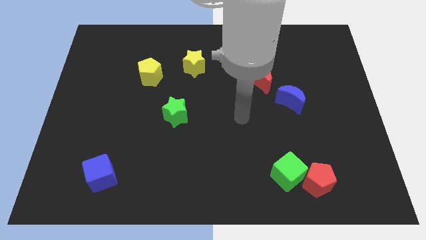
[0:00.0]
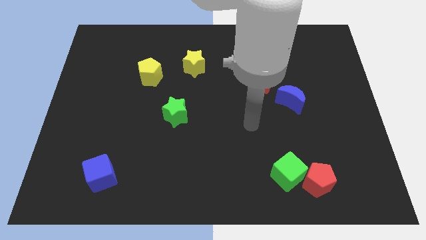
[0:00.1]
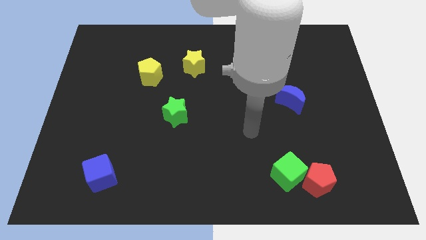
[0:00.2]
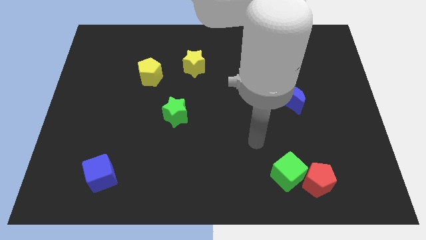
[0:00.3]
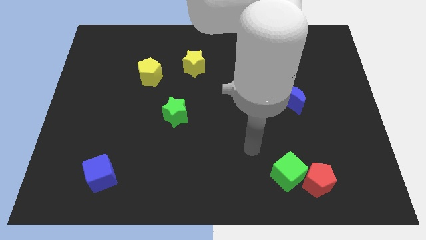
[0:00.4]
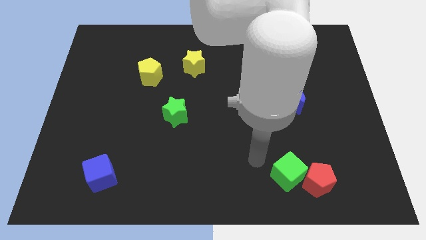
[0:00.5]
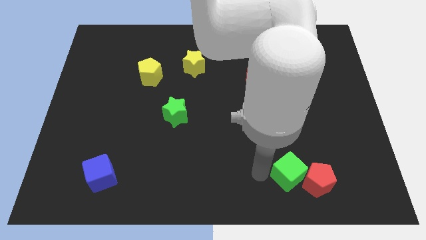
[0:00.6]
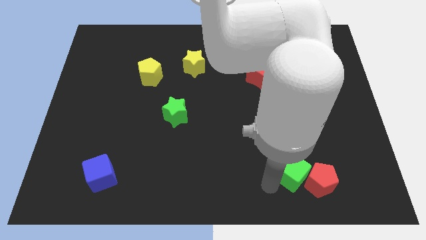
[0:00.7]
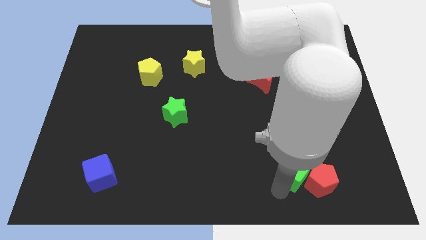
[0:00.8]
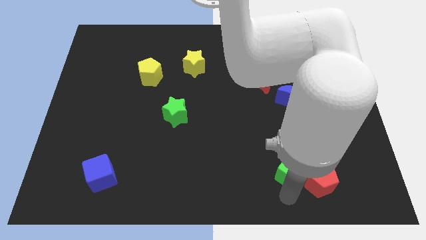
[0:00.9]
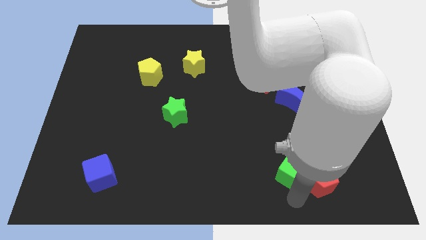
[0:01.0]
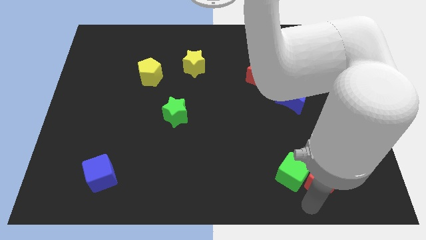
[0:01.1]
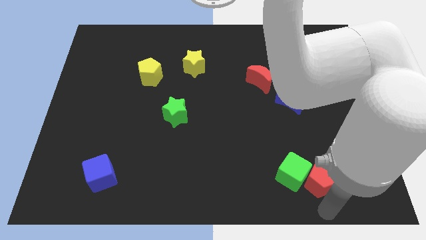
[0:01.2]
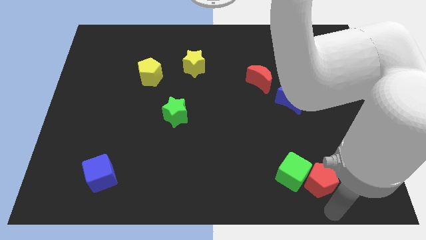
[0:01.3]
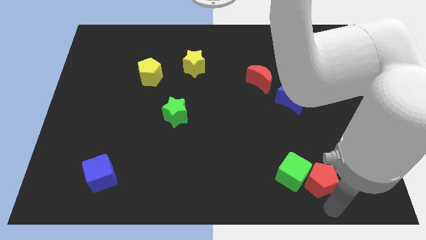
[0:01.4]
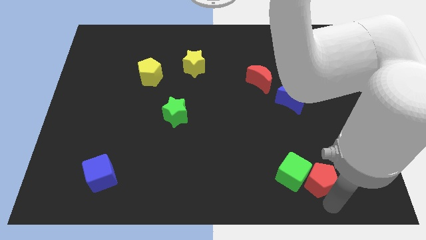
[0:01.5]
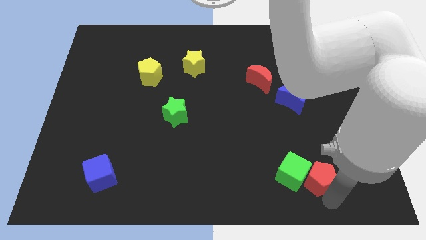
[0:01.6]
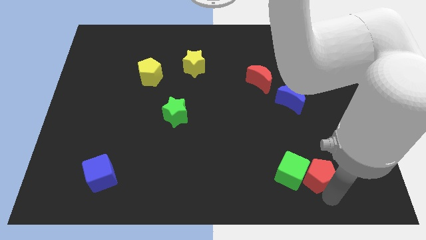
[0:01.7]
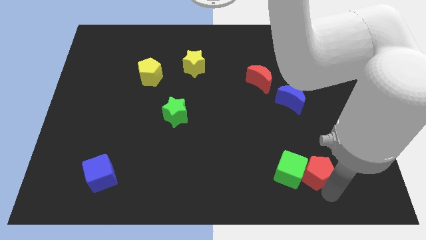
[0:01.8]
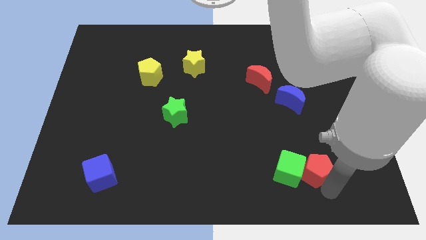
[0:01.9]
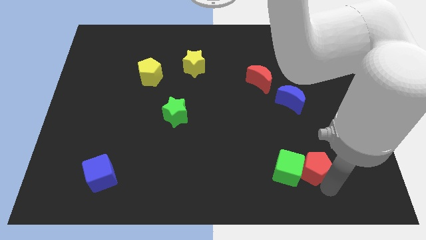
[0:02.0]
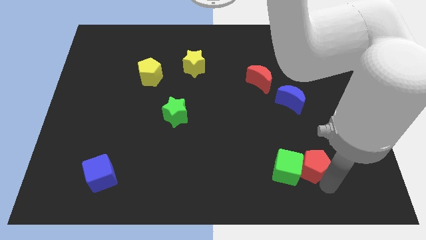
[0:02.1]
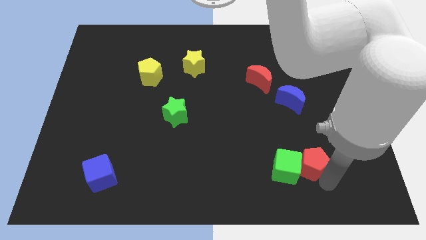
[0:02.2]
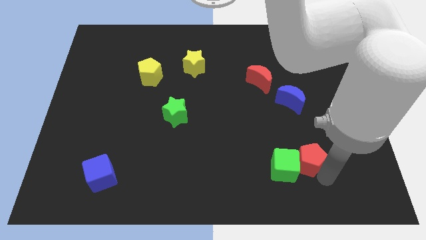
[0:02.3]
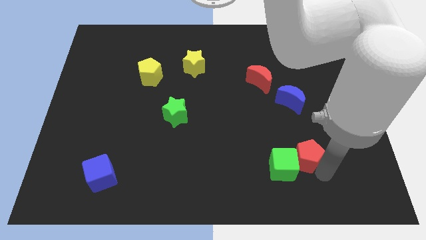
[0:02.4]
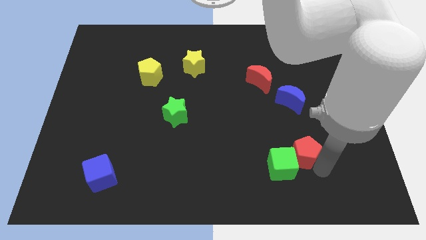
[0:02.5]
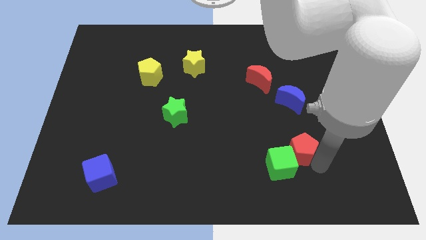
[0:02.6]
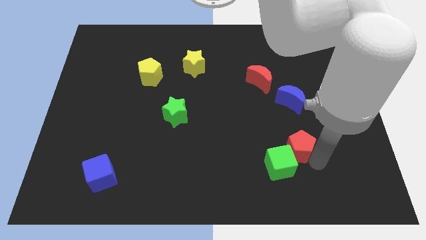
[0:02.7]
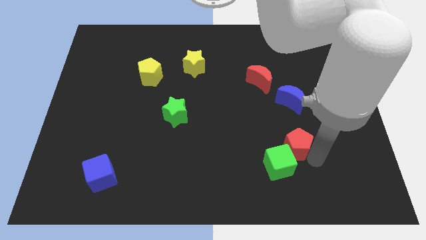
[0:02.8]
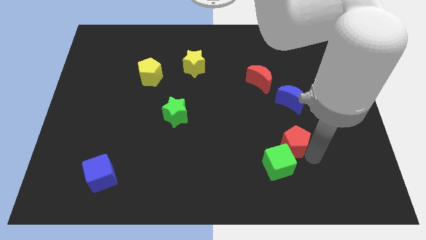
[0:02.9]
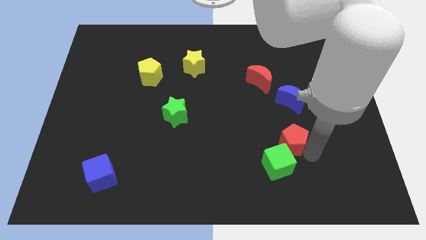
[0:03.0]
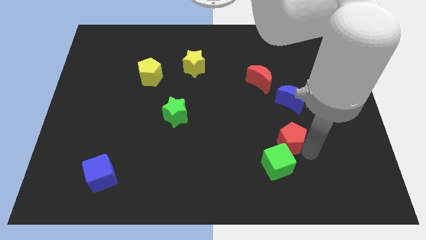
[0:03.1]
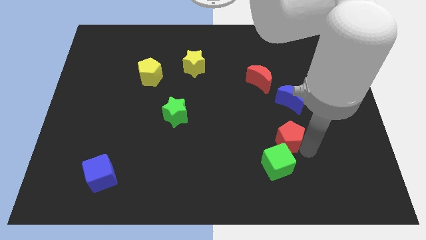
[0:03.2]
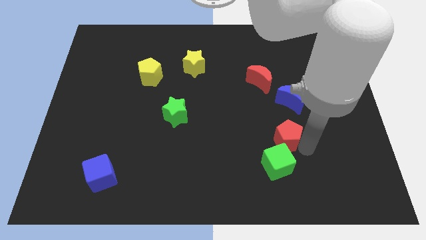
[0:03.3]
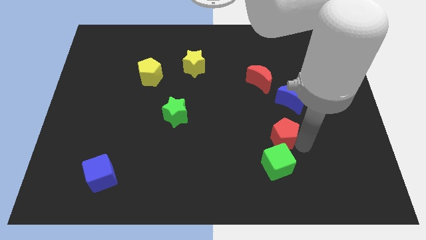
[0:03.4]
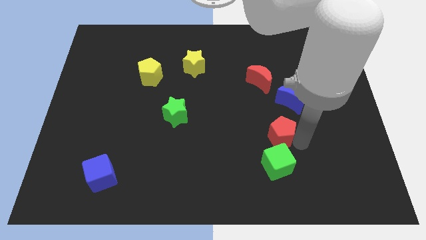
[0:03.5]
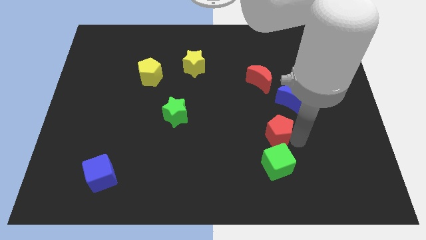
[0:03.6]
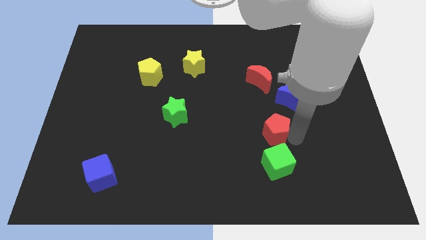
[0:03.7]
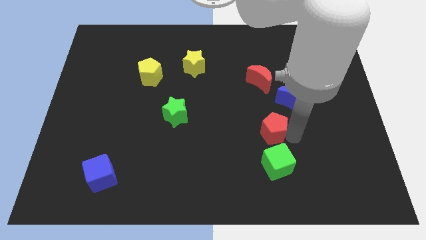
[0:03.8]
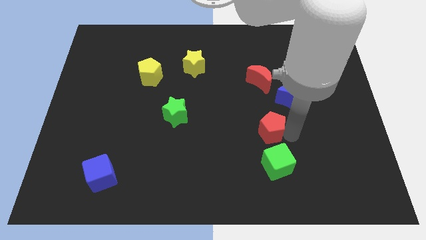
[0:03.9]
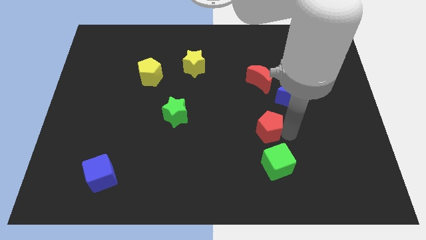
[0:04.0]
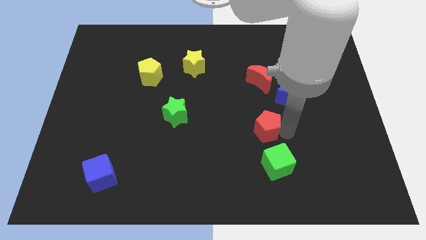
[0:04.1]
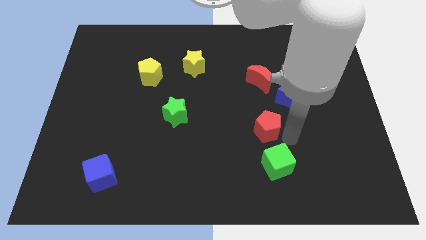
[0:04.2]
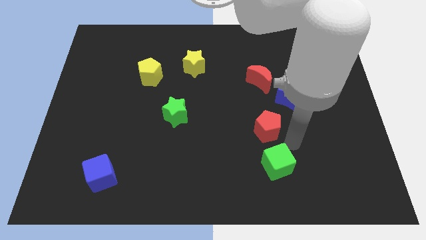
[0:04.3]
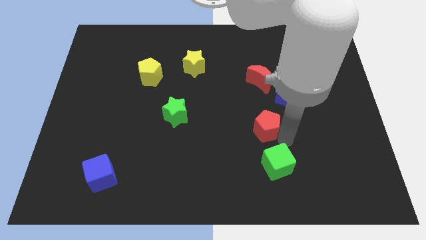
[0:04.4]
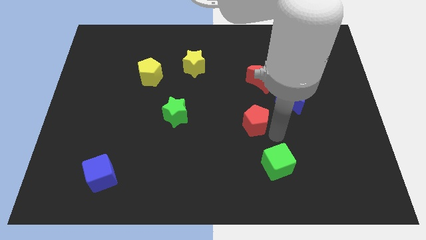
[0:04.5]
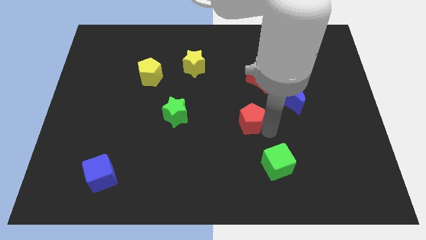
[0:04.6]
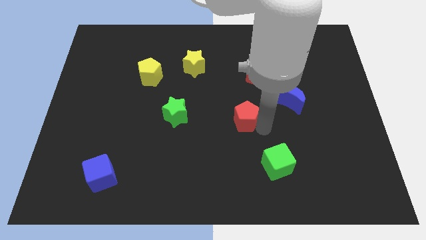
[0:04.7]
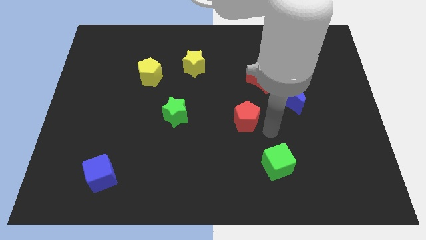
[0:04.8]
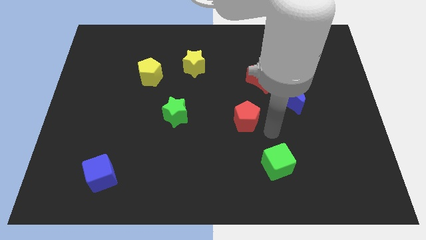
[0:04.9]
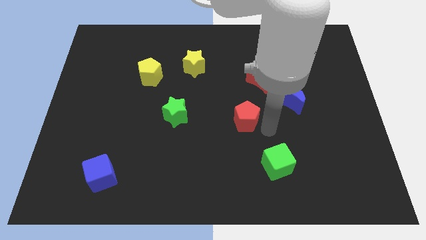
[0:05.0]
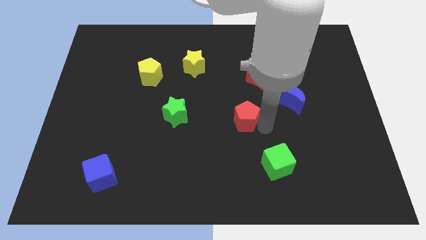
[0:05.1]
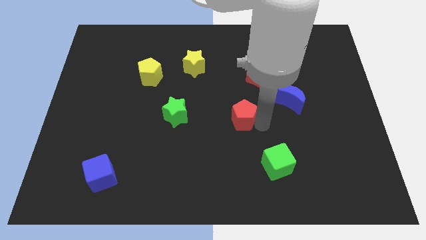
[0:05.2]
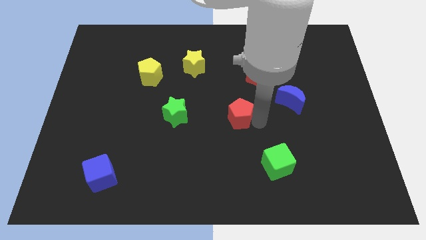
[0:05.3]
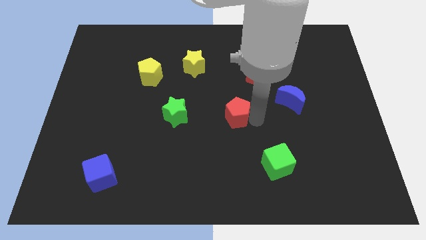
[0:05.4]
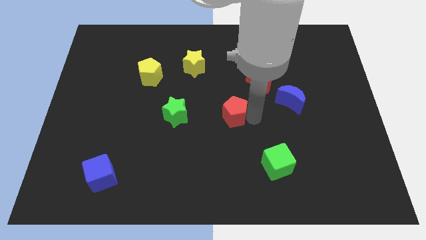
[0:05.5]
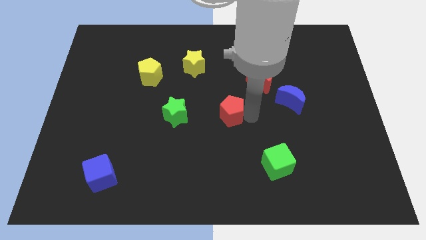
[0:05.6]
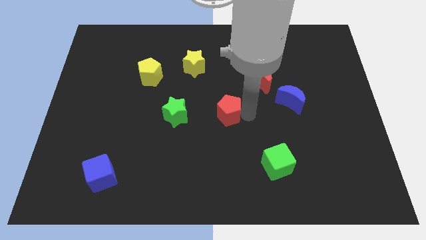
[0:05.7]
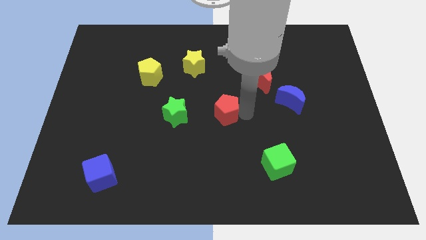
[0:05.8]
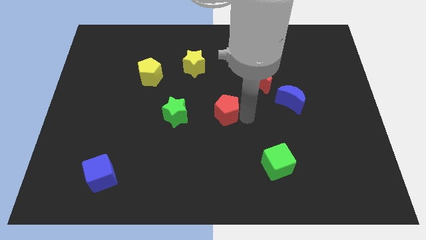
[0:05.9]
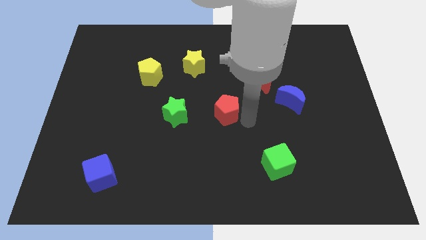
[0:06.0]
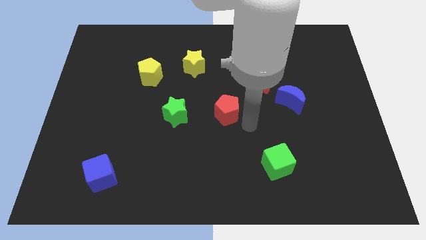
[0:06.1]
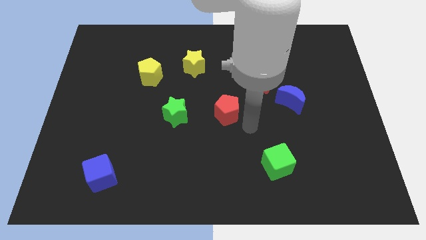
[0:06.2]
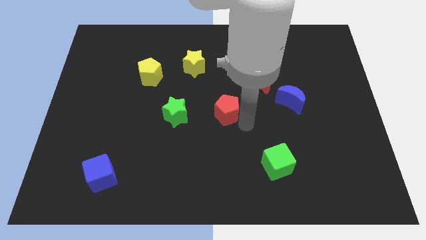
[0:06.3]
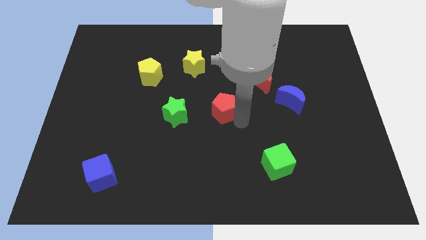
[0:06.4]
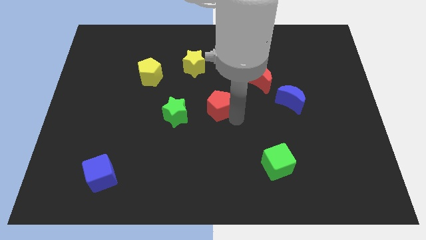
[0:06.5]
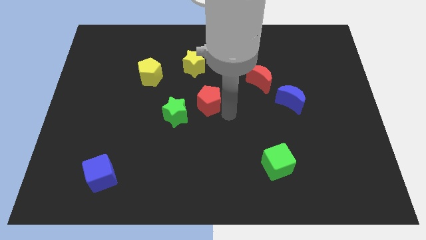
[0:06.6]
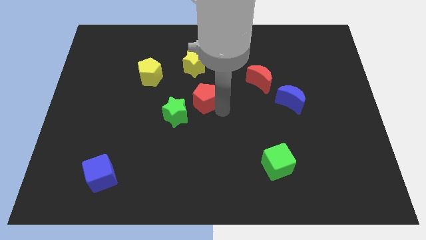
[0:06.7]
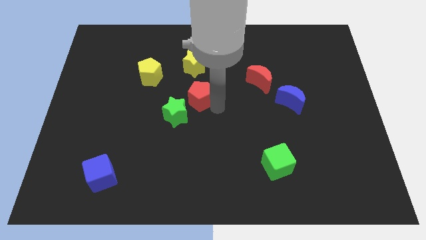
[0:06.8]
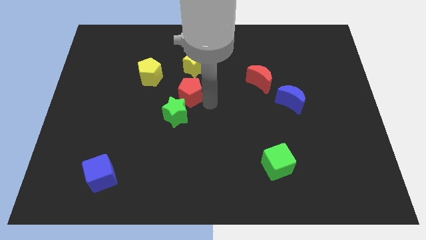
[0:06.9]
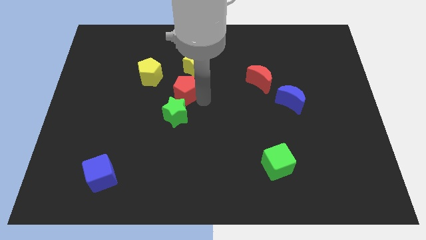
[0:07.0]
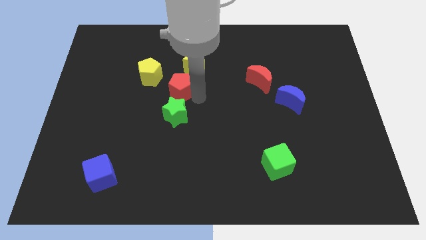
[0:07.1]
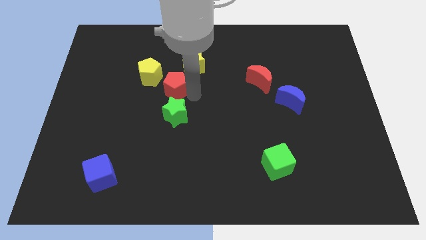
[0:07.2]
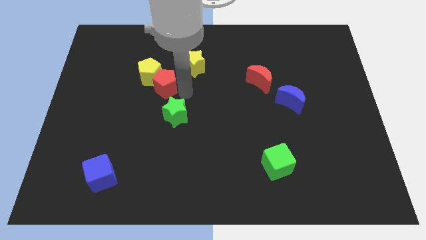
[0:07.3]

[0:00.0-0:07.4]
push the red pentagon to the yellow pentagon

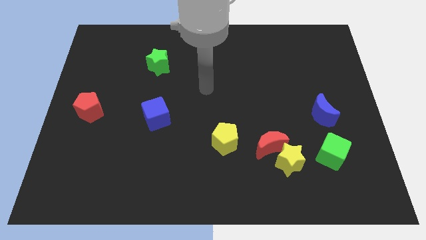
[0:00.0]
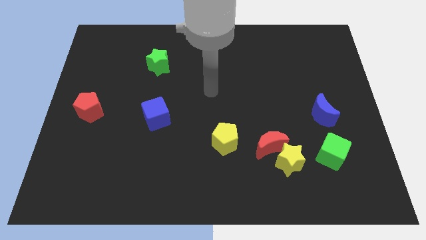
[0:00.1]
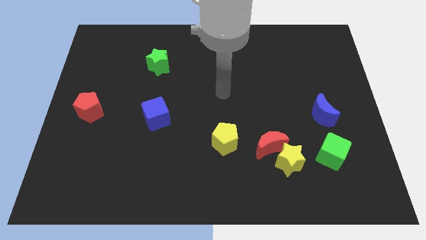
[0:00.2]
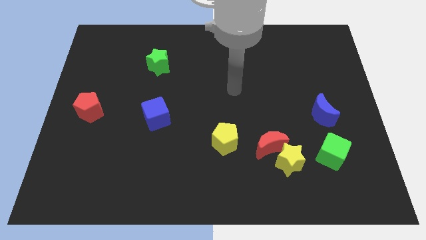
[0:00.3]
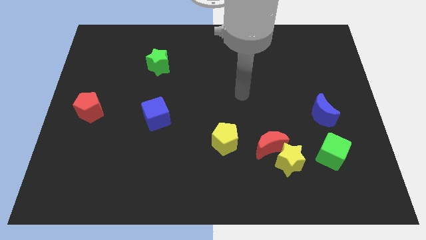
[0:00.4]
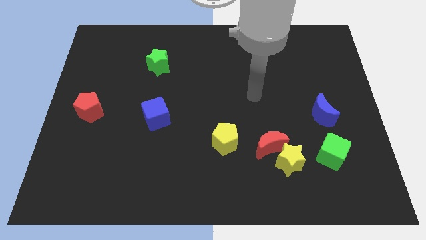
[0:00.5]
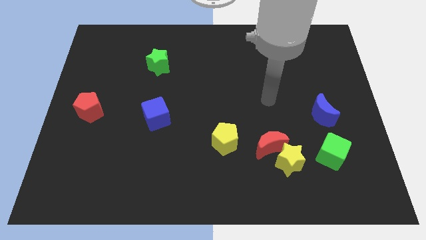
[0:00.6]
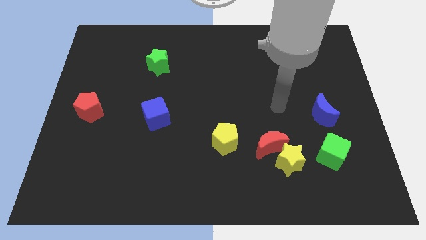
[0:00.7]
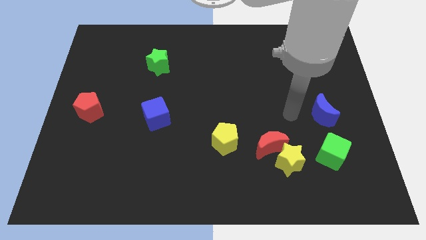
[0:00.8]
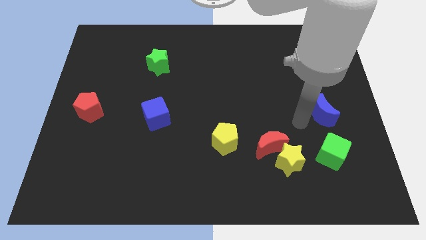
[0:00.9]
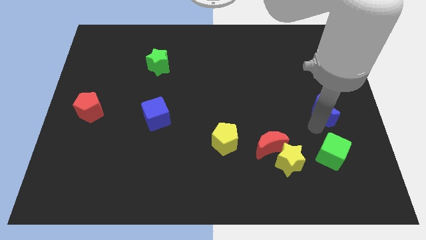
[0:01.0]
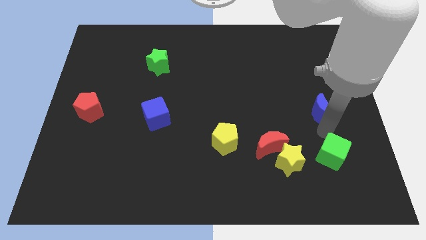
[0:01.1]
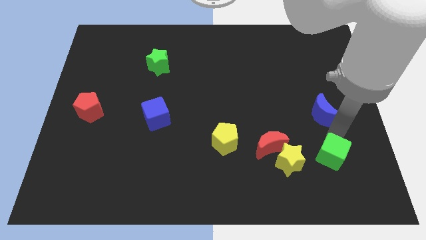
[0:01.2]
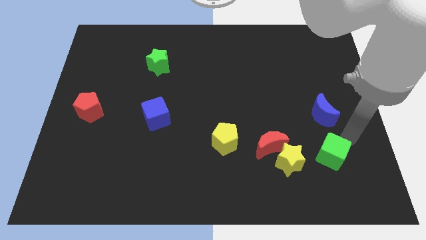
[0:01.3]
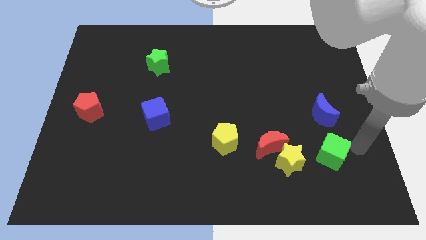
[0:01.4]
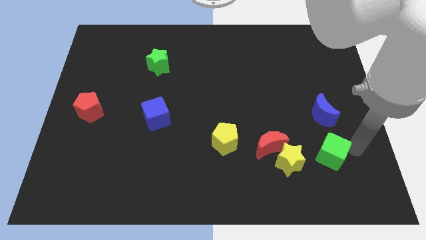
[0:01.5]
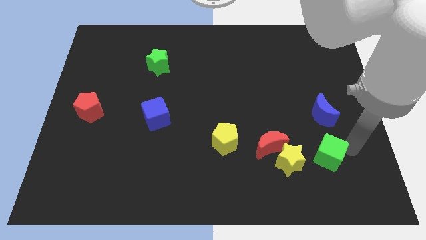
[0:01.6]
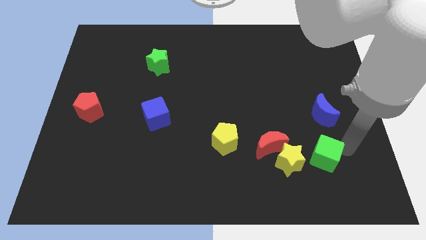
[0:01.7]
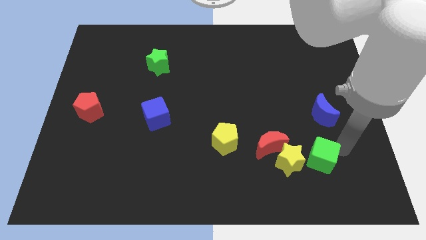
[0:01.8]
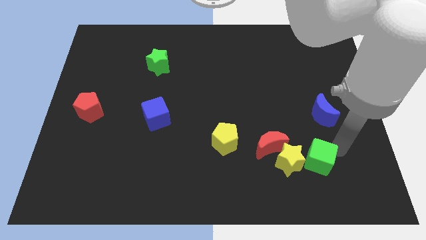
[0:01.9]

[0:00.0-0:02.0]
push the green cube towards the yellow star
